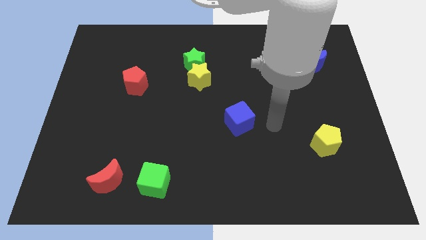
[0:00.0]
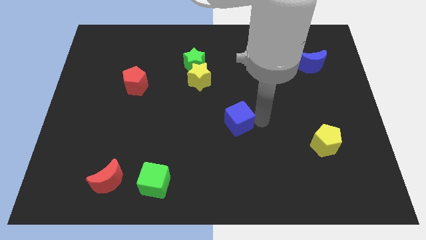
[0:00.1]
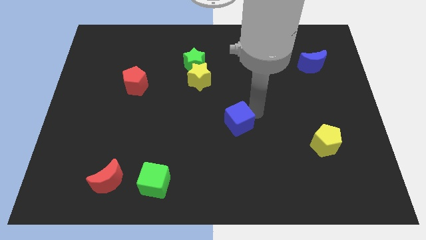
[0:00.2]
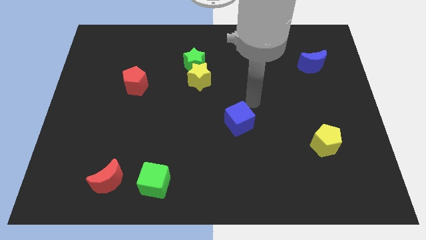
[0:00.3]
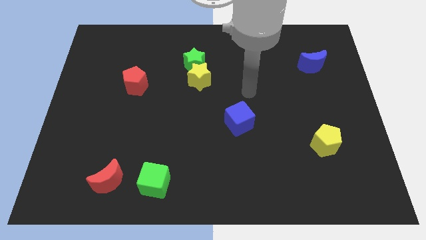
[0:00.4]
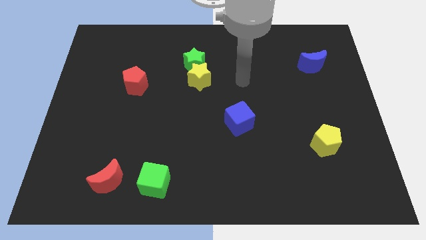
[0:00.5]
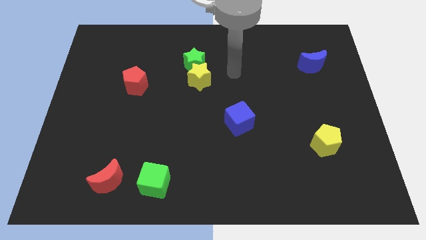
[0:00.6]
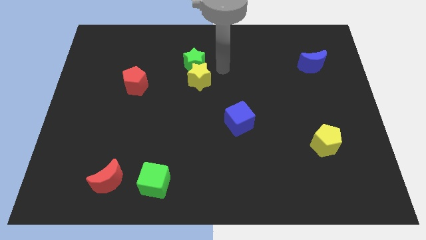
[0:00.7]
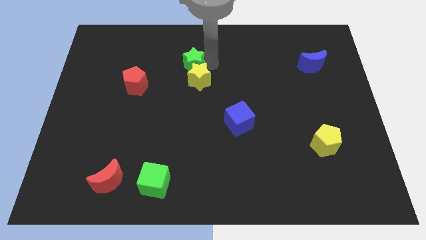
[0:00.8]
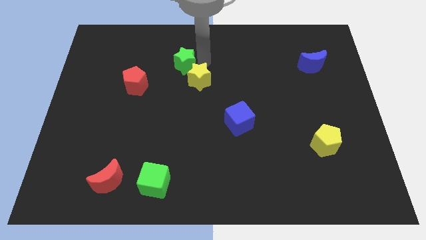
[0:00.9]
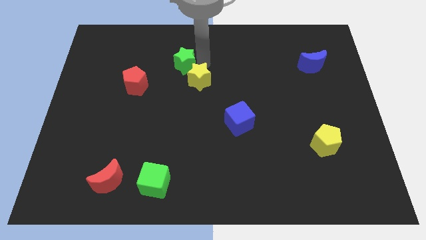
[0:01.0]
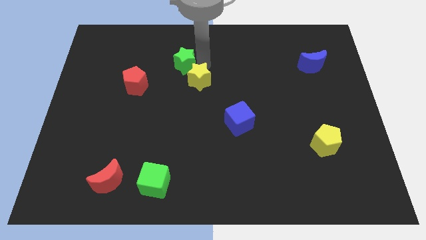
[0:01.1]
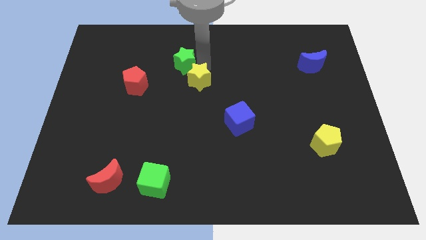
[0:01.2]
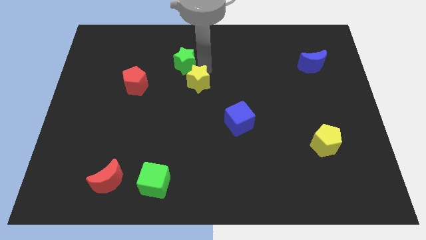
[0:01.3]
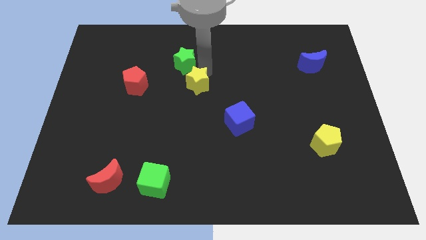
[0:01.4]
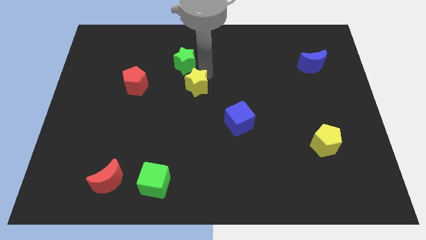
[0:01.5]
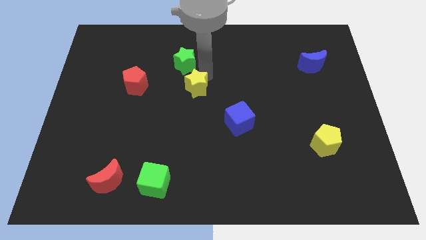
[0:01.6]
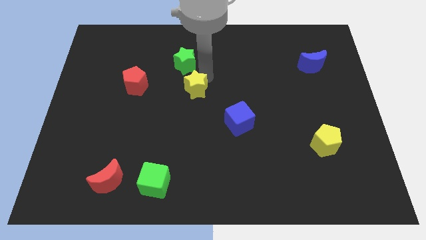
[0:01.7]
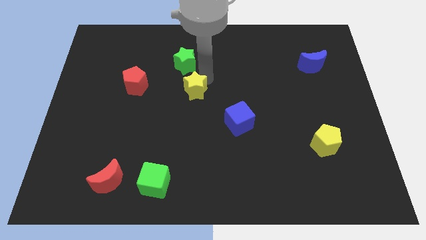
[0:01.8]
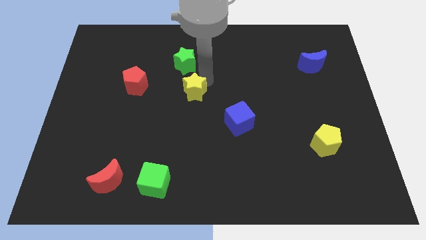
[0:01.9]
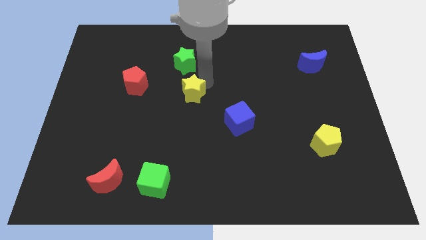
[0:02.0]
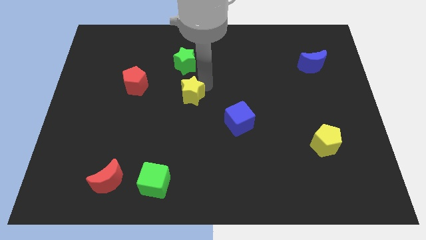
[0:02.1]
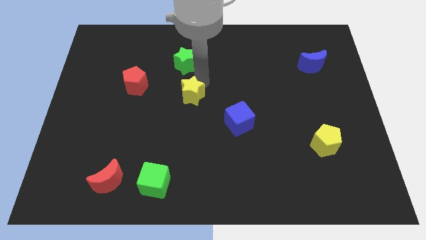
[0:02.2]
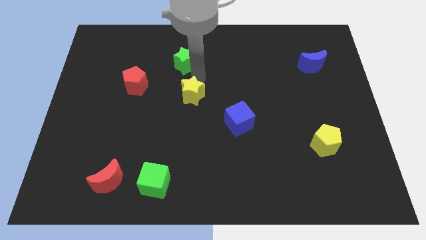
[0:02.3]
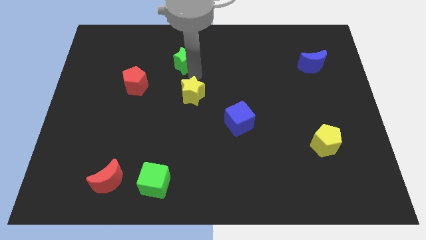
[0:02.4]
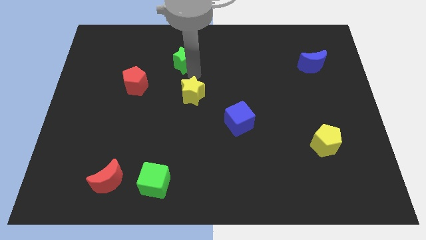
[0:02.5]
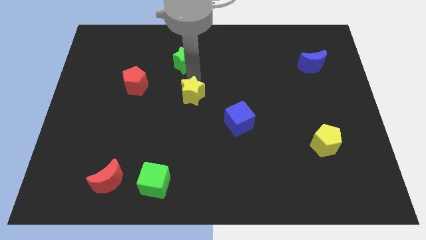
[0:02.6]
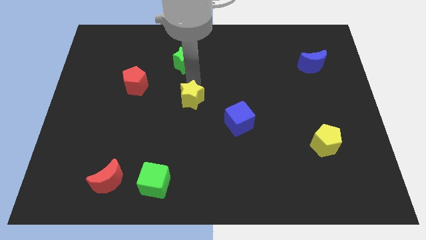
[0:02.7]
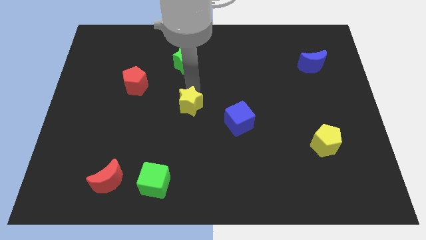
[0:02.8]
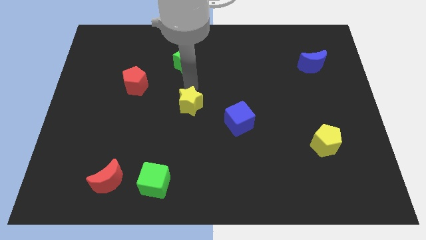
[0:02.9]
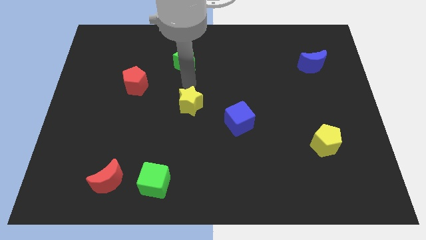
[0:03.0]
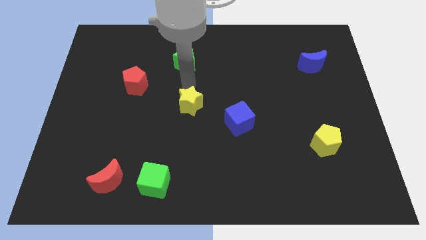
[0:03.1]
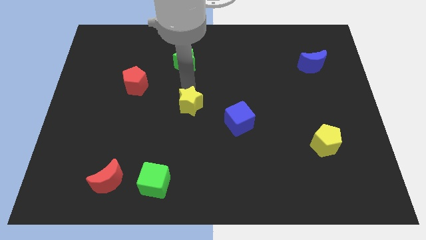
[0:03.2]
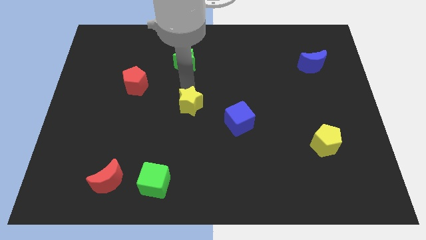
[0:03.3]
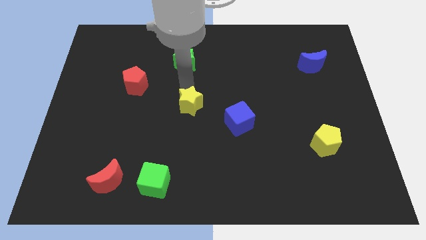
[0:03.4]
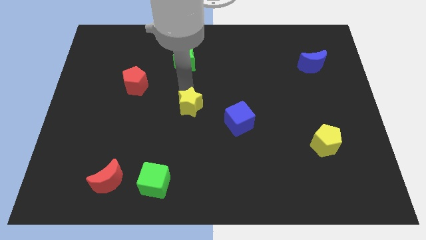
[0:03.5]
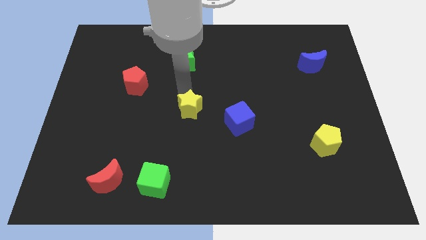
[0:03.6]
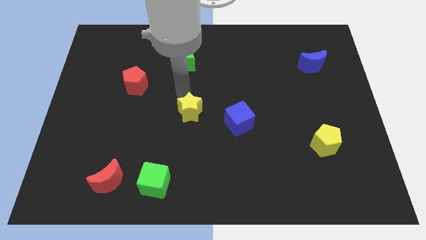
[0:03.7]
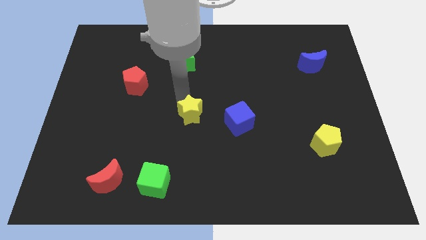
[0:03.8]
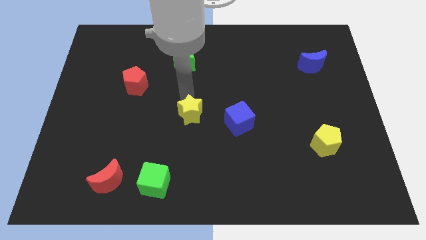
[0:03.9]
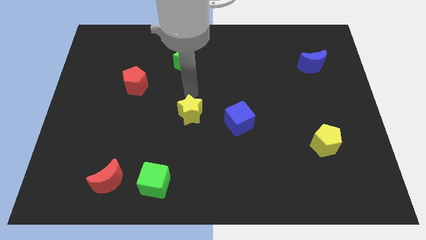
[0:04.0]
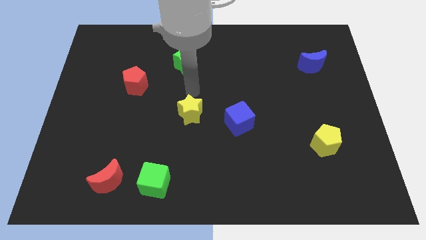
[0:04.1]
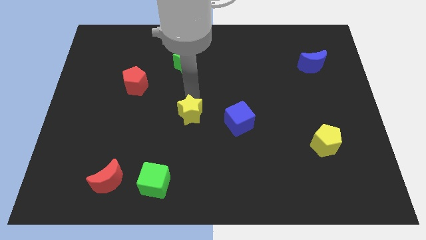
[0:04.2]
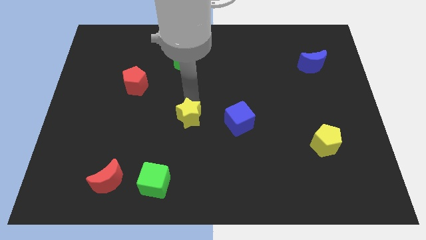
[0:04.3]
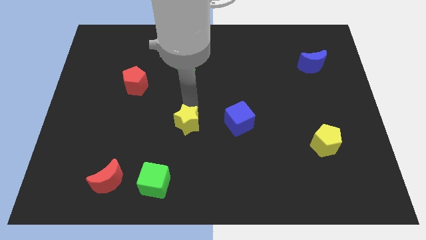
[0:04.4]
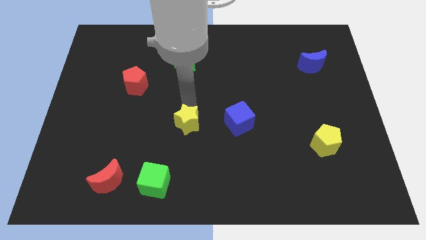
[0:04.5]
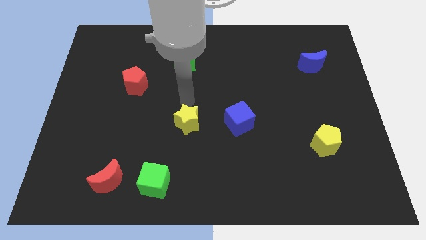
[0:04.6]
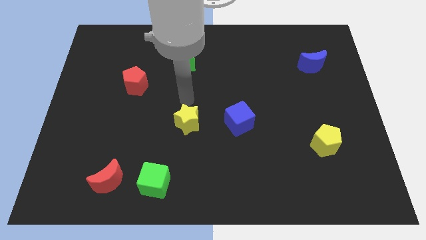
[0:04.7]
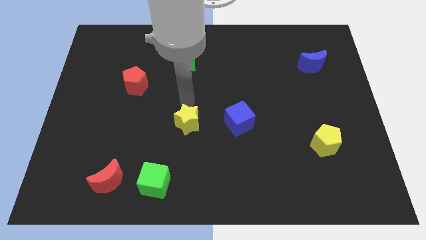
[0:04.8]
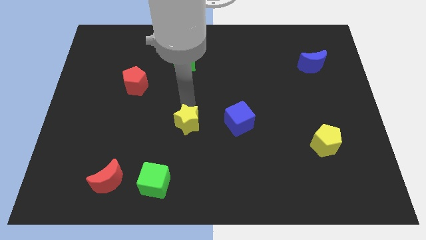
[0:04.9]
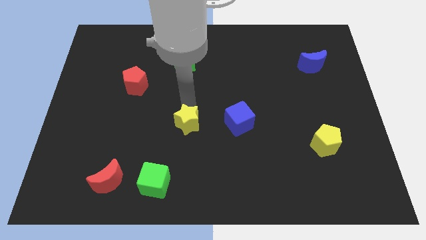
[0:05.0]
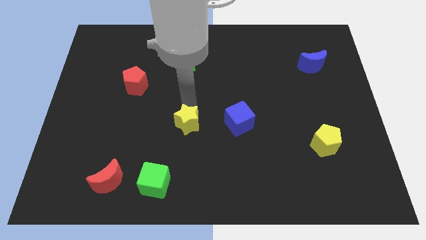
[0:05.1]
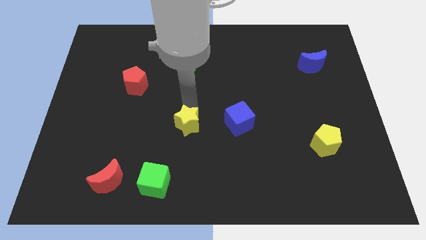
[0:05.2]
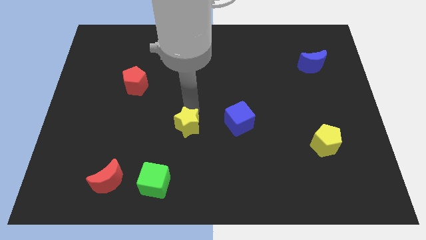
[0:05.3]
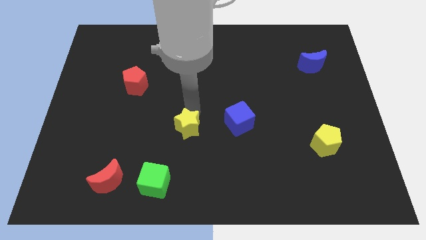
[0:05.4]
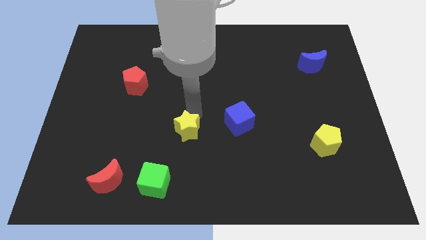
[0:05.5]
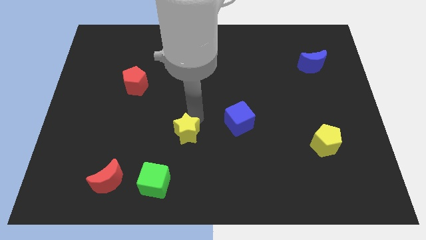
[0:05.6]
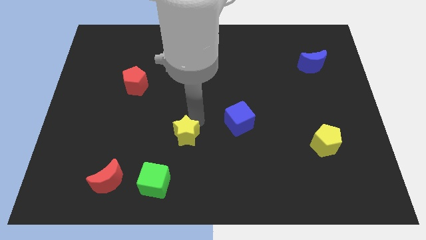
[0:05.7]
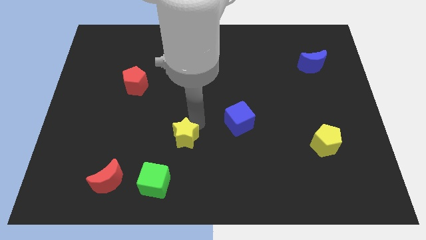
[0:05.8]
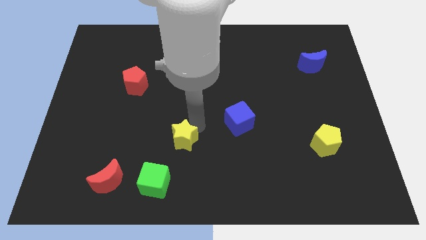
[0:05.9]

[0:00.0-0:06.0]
slide the yellow star to the top right of the green cube

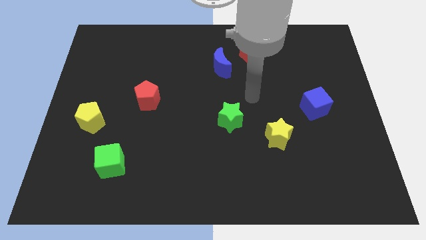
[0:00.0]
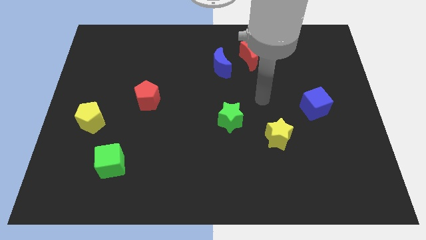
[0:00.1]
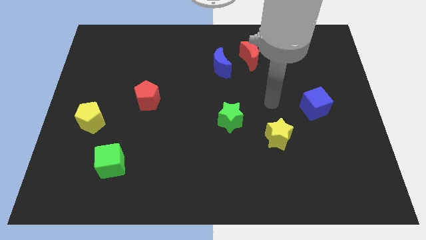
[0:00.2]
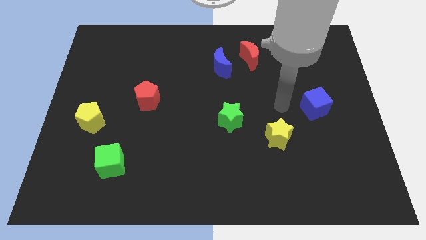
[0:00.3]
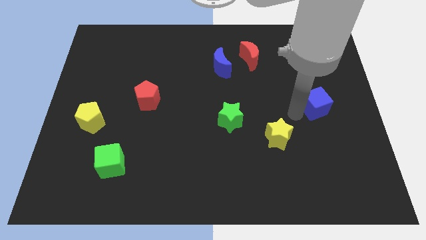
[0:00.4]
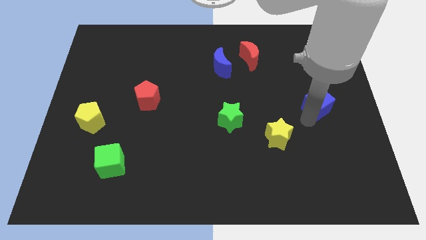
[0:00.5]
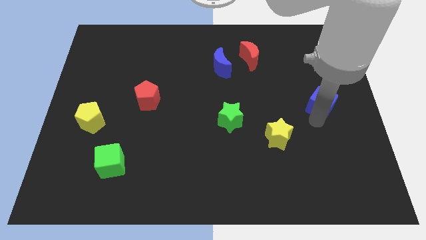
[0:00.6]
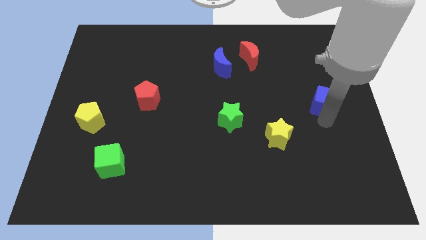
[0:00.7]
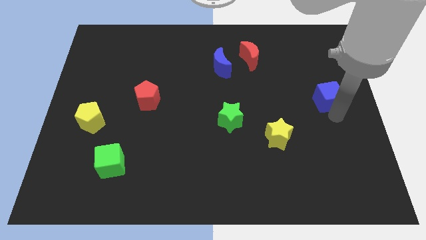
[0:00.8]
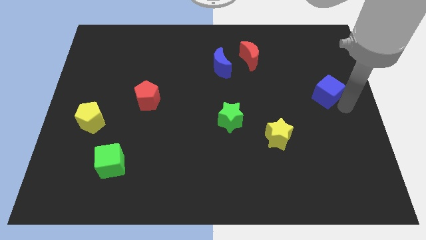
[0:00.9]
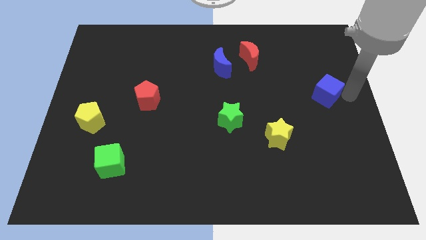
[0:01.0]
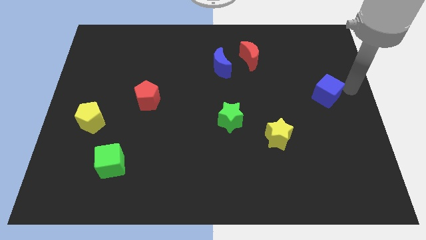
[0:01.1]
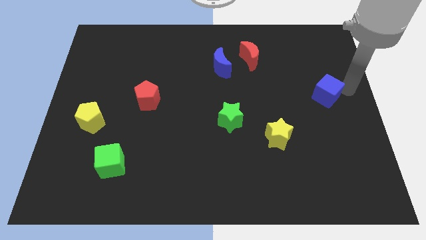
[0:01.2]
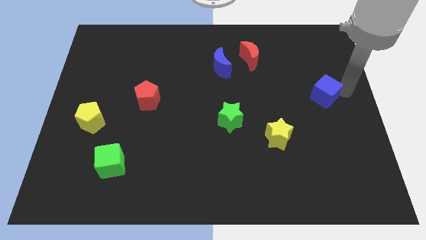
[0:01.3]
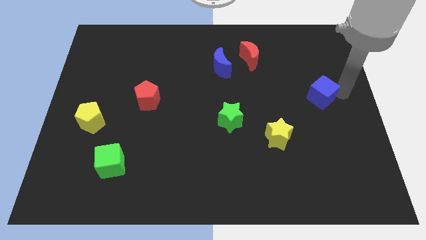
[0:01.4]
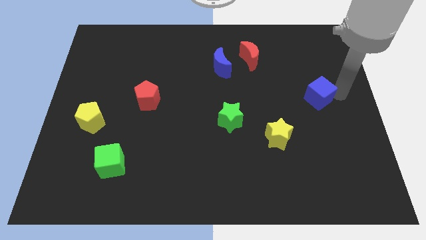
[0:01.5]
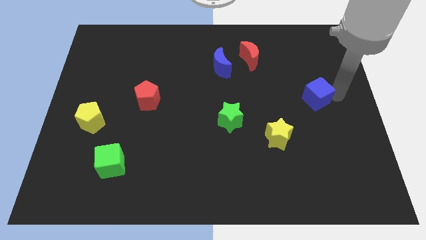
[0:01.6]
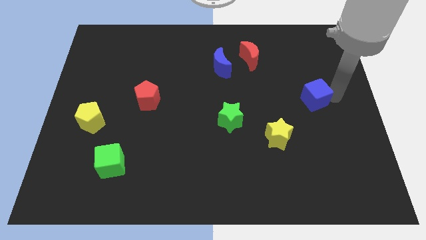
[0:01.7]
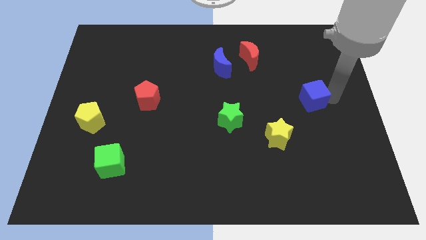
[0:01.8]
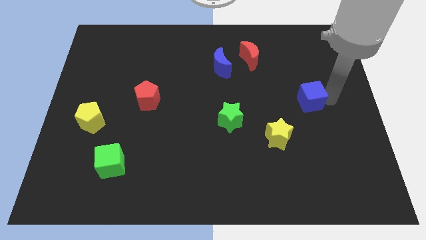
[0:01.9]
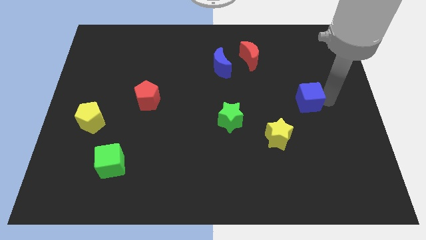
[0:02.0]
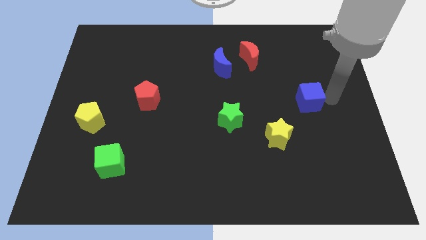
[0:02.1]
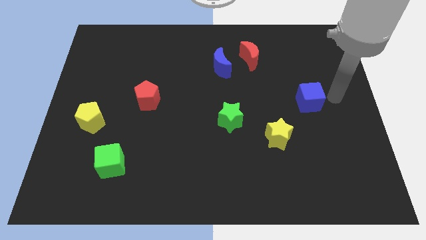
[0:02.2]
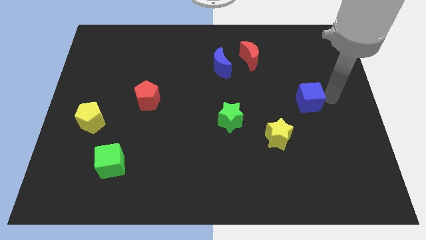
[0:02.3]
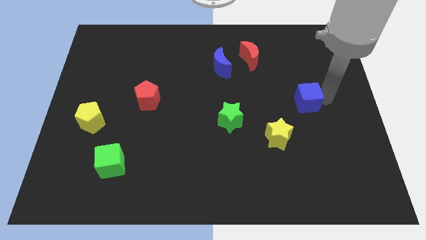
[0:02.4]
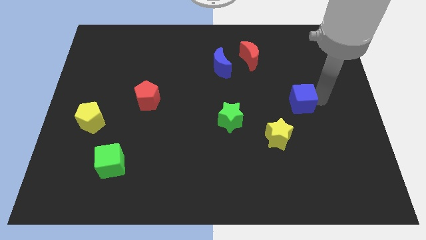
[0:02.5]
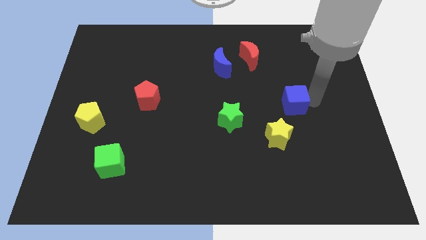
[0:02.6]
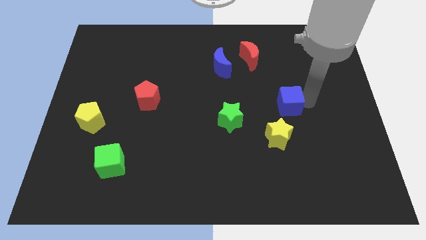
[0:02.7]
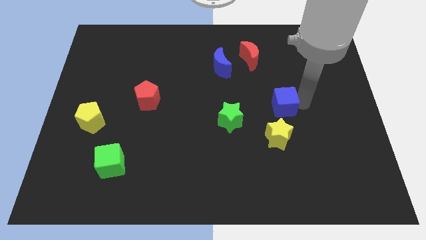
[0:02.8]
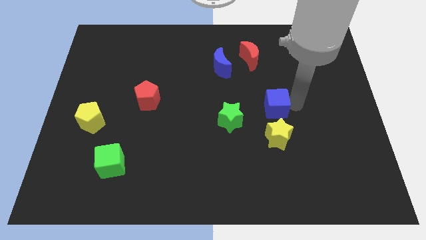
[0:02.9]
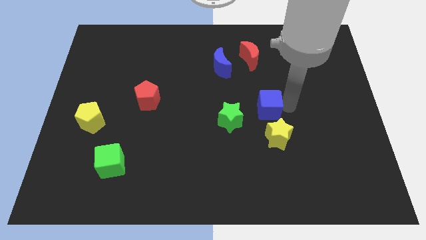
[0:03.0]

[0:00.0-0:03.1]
slide the blue cube to the top right side of the green star
